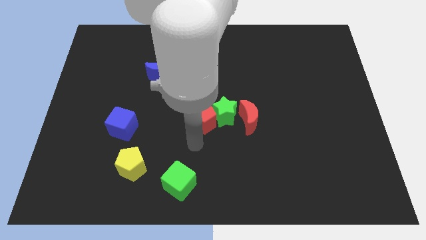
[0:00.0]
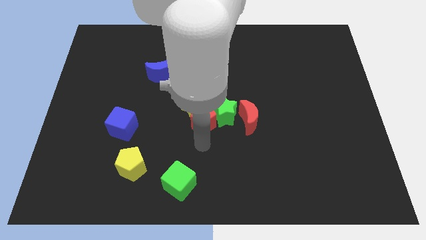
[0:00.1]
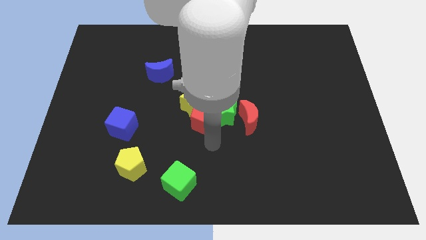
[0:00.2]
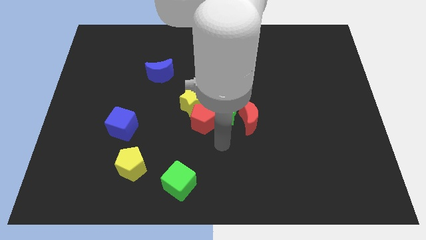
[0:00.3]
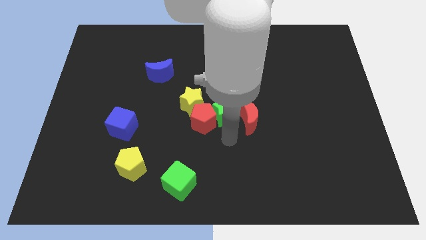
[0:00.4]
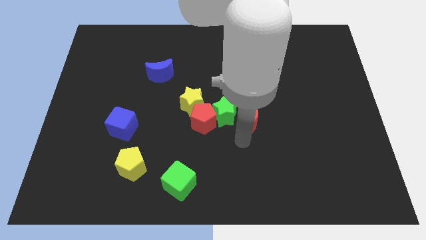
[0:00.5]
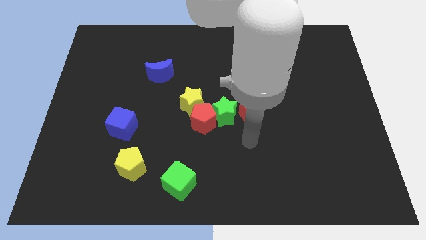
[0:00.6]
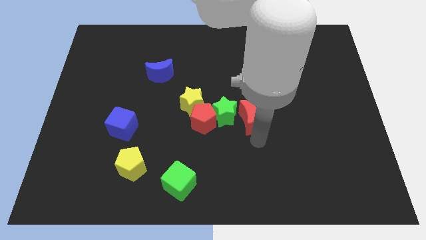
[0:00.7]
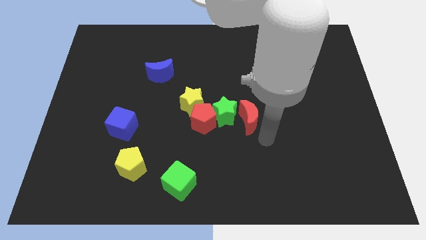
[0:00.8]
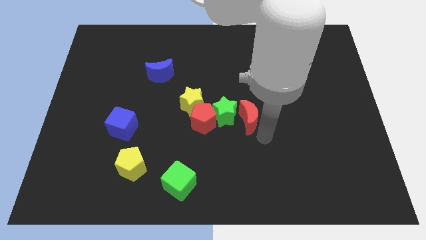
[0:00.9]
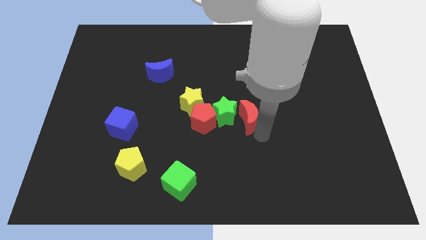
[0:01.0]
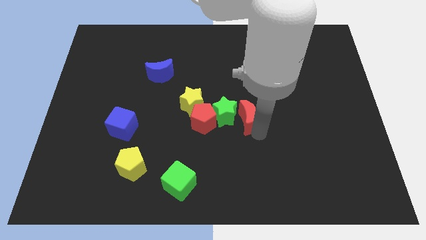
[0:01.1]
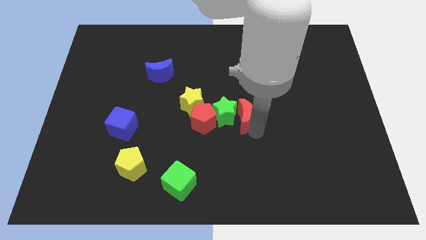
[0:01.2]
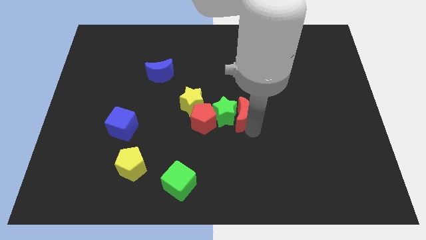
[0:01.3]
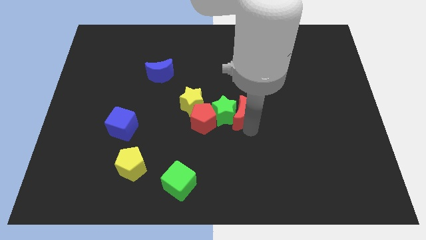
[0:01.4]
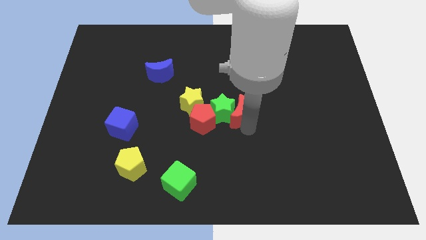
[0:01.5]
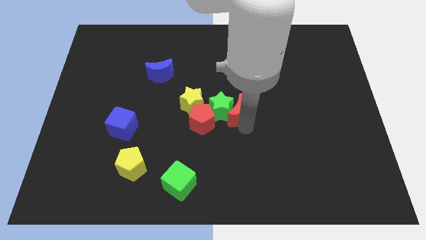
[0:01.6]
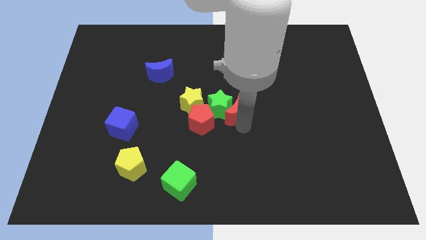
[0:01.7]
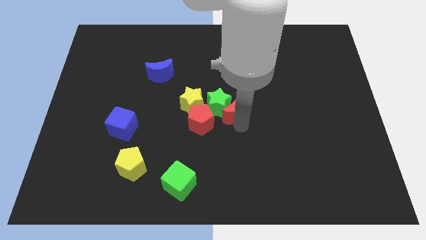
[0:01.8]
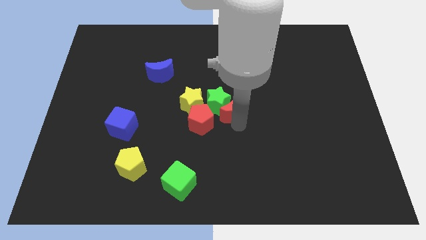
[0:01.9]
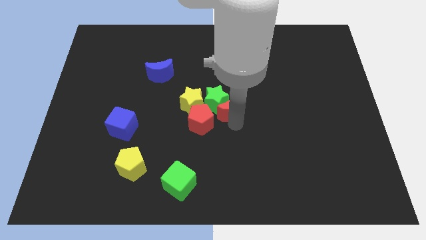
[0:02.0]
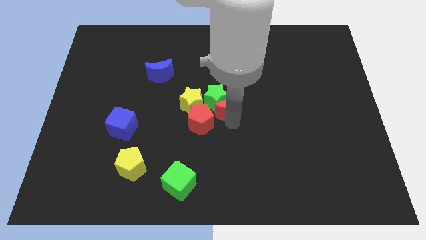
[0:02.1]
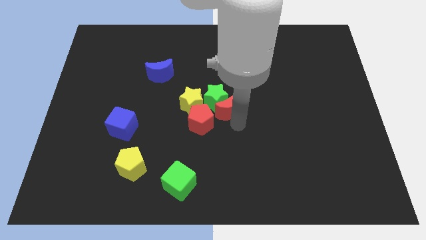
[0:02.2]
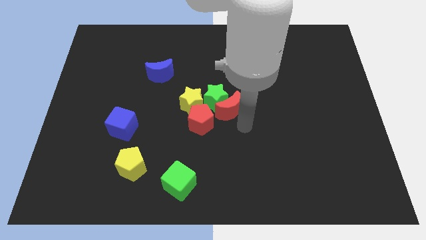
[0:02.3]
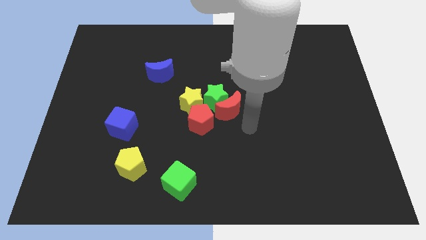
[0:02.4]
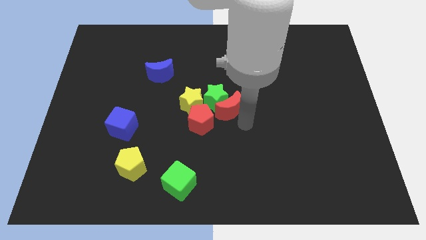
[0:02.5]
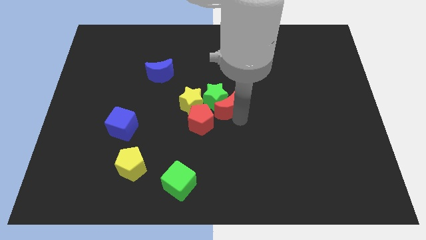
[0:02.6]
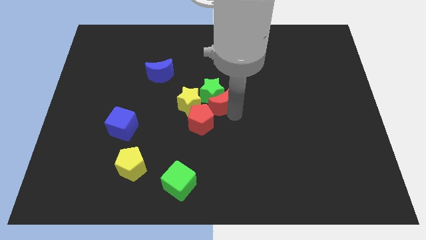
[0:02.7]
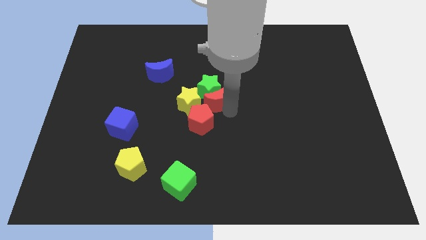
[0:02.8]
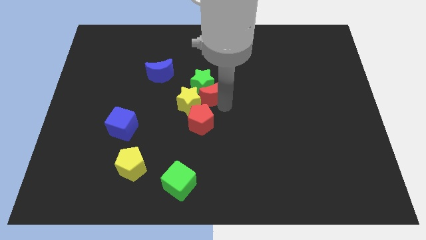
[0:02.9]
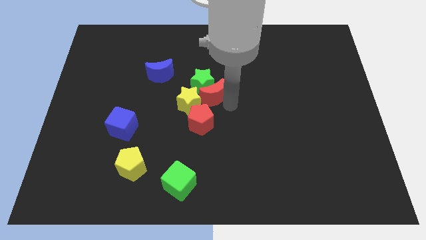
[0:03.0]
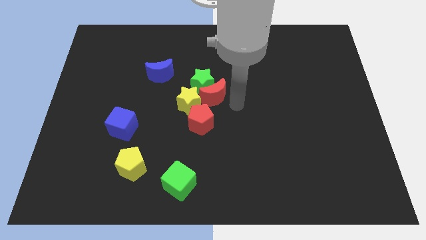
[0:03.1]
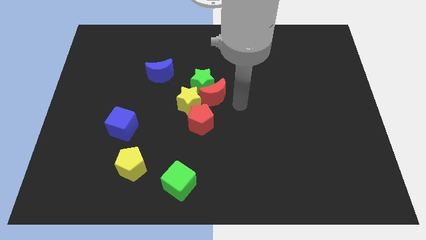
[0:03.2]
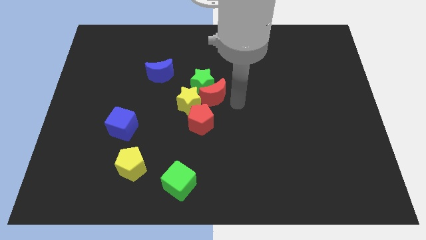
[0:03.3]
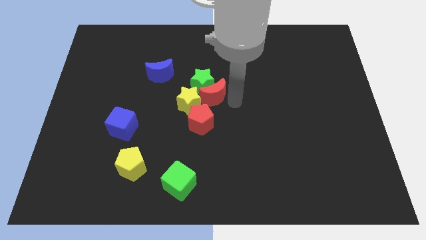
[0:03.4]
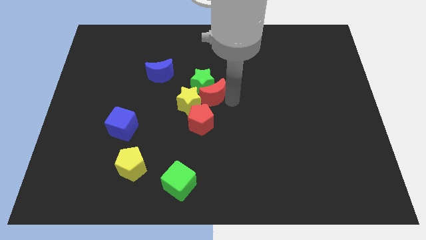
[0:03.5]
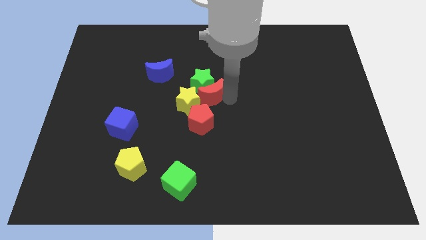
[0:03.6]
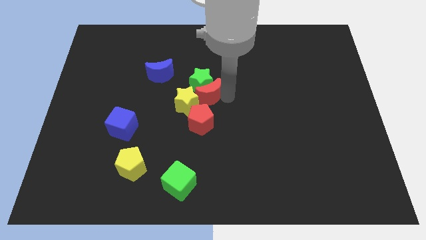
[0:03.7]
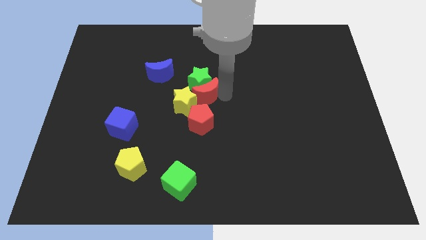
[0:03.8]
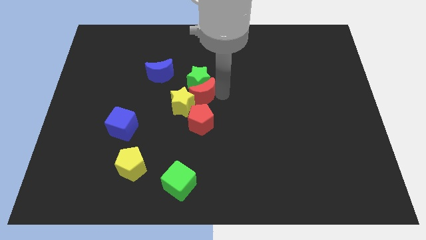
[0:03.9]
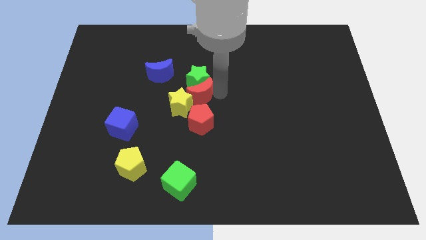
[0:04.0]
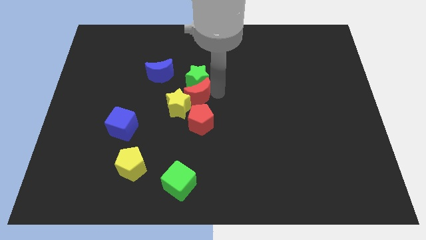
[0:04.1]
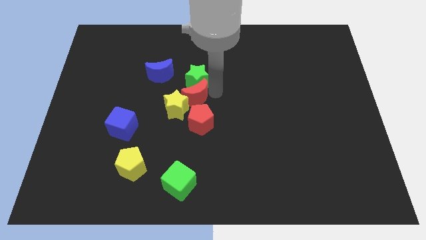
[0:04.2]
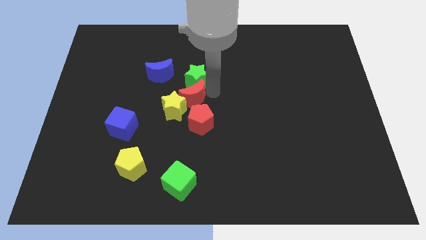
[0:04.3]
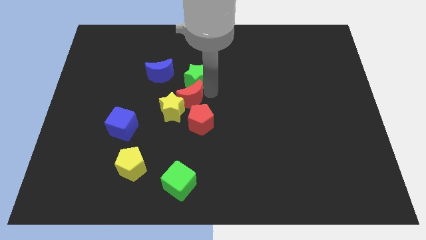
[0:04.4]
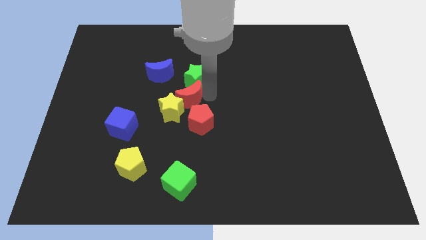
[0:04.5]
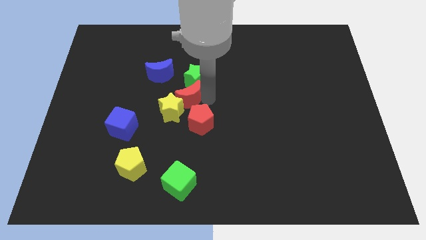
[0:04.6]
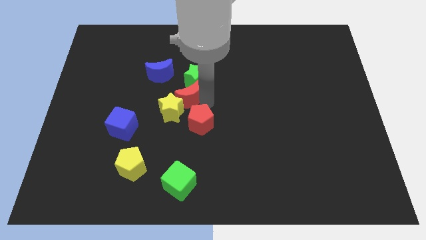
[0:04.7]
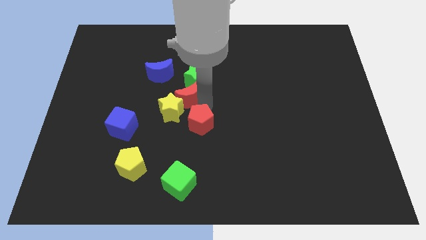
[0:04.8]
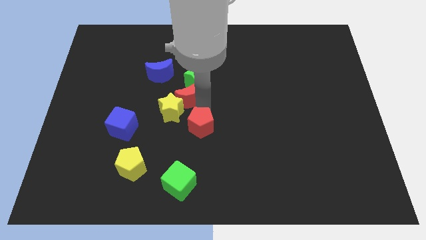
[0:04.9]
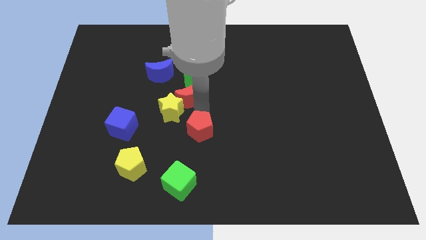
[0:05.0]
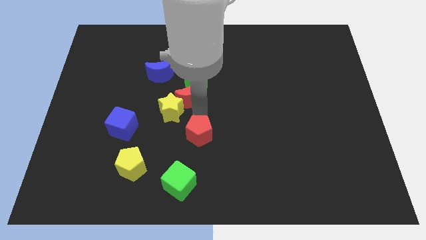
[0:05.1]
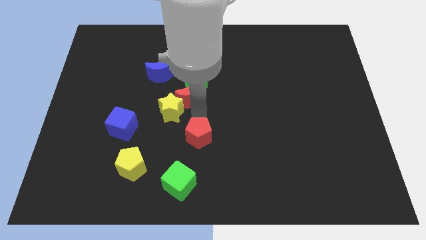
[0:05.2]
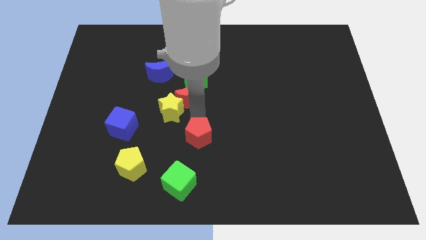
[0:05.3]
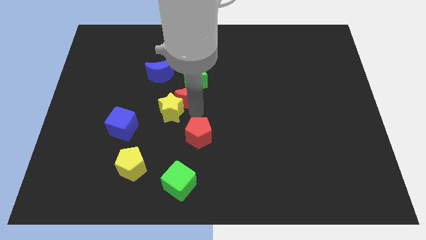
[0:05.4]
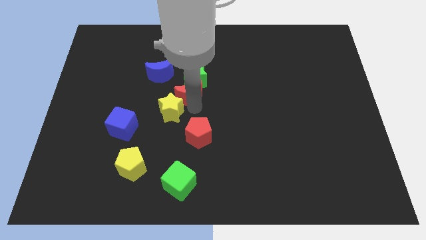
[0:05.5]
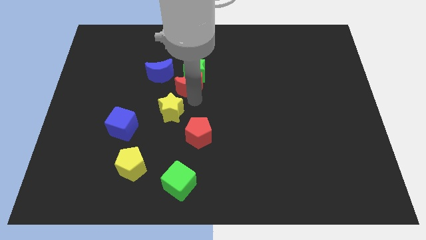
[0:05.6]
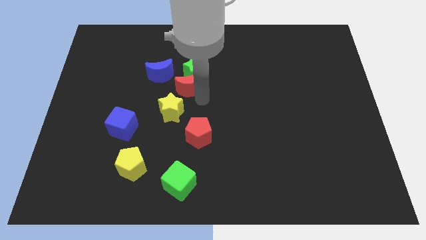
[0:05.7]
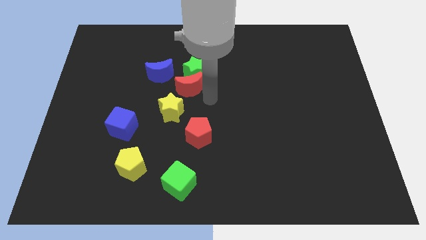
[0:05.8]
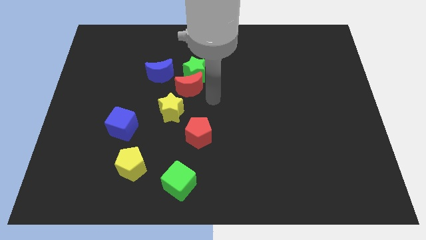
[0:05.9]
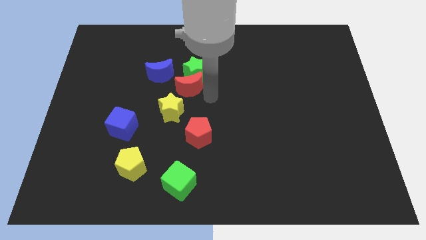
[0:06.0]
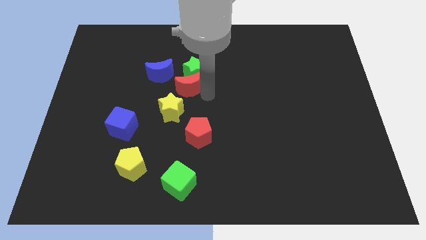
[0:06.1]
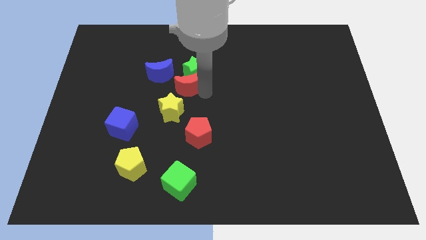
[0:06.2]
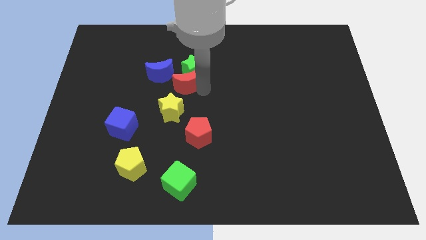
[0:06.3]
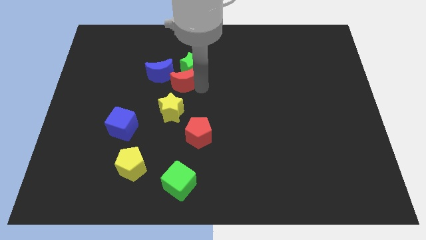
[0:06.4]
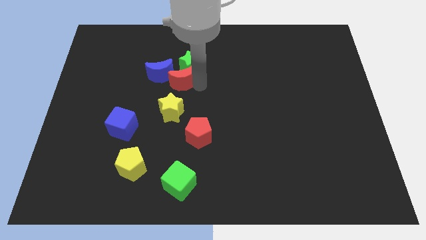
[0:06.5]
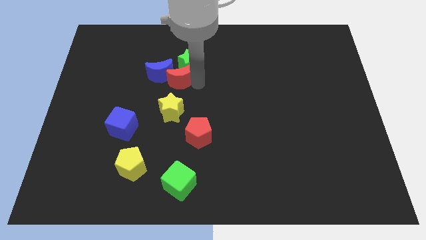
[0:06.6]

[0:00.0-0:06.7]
push the red moon towards the blue moon

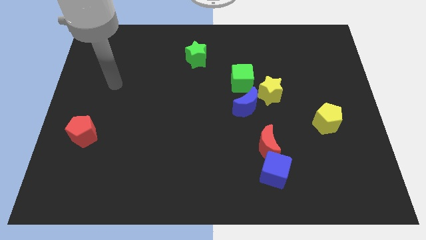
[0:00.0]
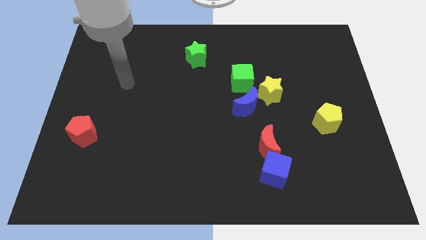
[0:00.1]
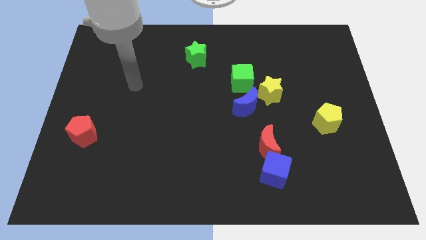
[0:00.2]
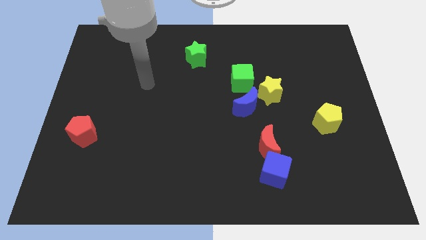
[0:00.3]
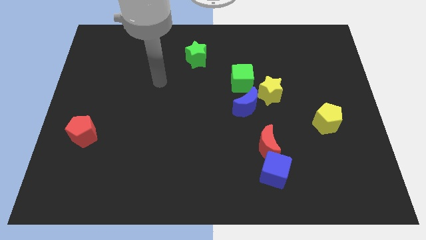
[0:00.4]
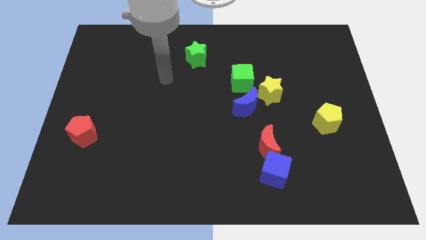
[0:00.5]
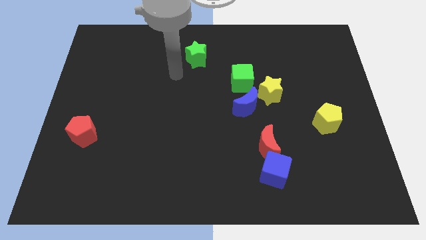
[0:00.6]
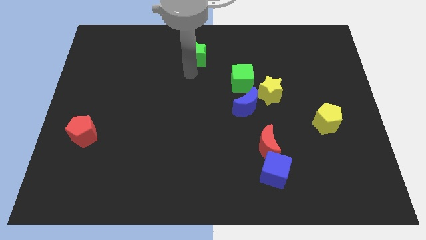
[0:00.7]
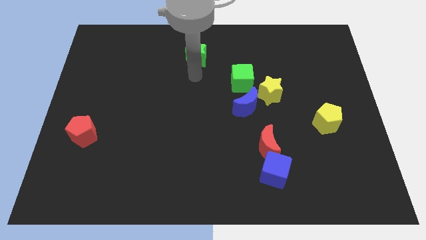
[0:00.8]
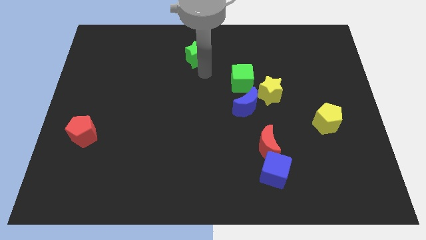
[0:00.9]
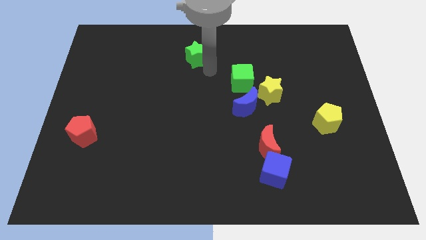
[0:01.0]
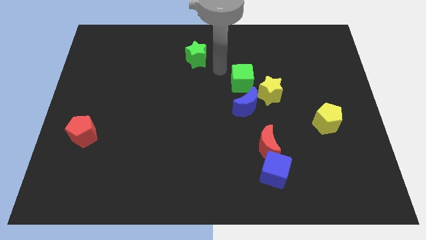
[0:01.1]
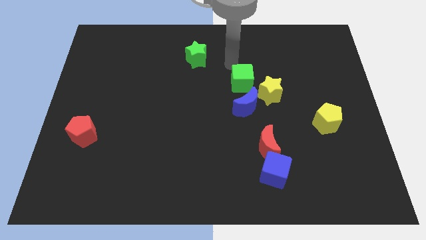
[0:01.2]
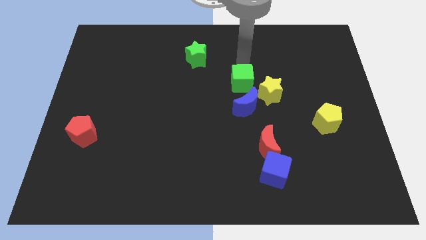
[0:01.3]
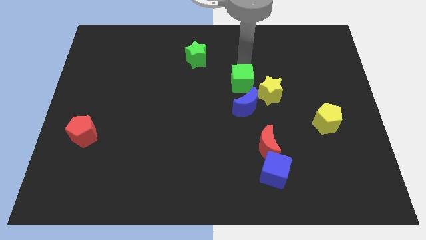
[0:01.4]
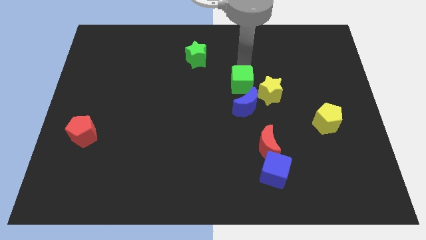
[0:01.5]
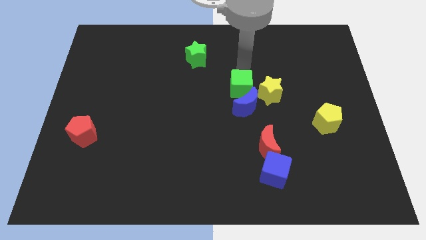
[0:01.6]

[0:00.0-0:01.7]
slide the green cube next to the blue moon
